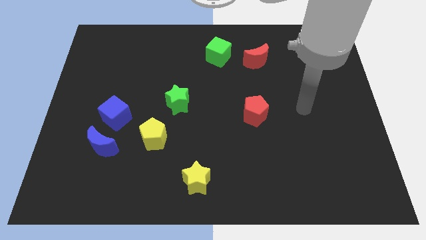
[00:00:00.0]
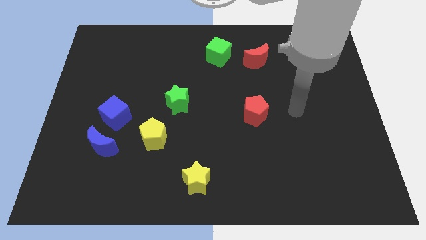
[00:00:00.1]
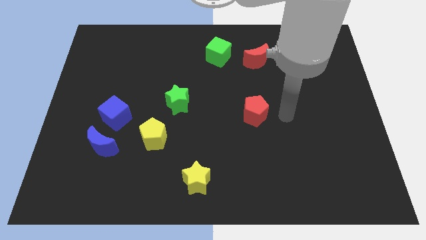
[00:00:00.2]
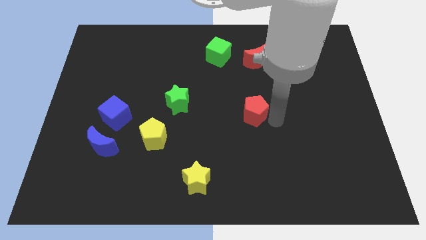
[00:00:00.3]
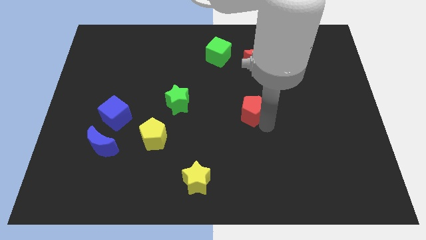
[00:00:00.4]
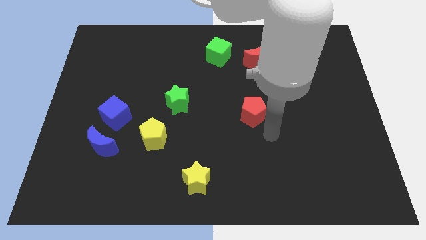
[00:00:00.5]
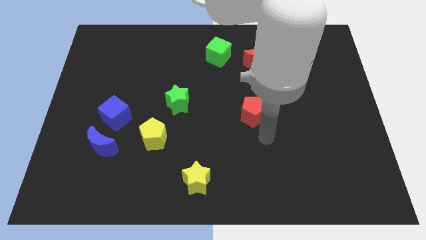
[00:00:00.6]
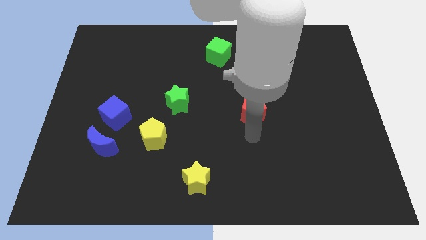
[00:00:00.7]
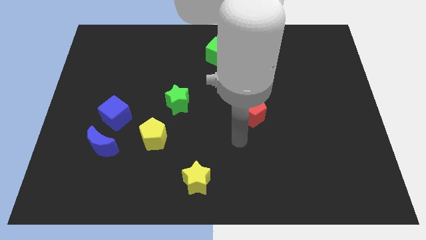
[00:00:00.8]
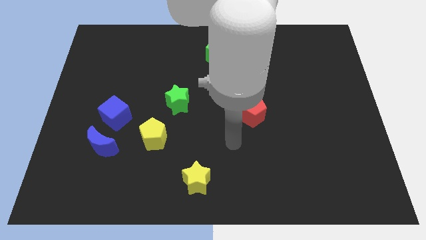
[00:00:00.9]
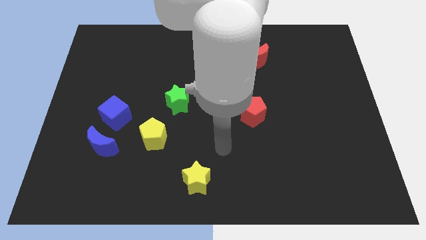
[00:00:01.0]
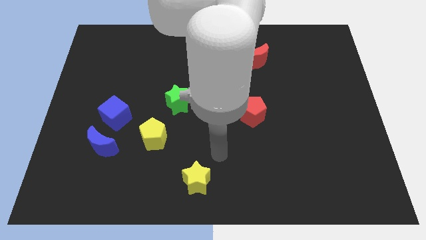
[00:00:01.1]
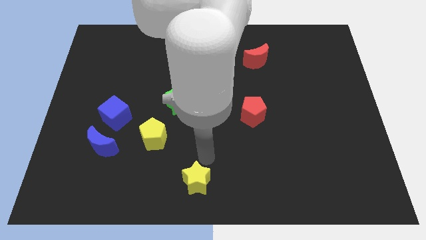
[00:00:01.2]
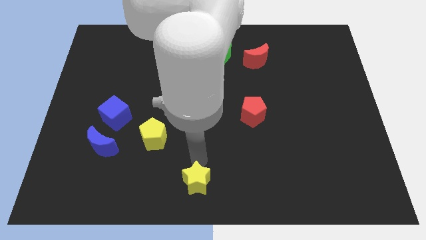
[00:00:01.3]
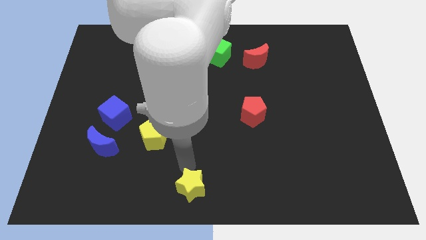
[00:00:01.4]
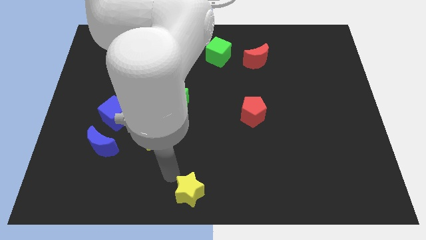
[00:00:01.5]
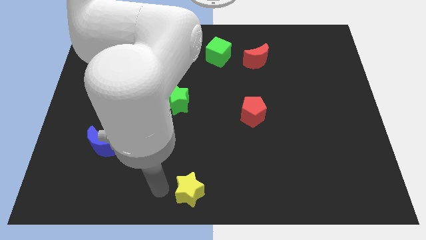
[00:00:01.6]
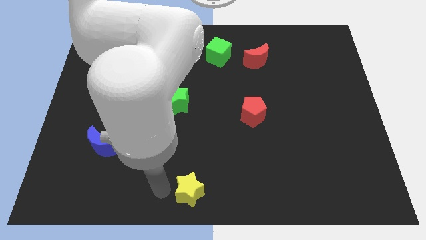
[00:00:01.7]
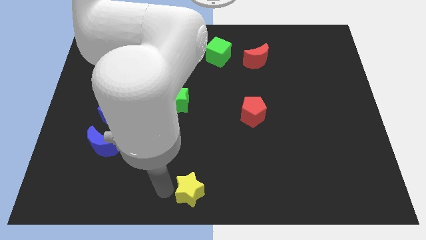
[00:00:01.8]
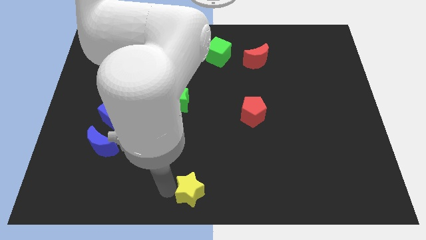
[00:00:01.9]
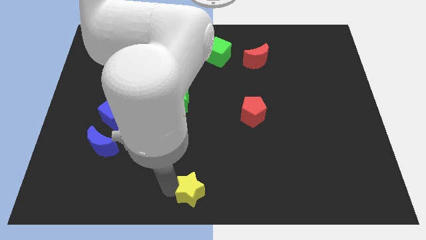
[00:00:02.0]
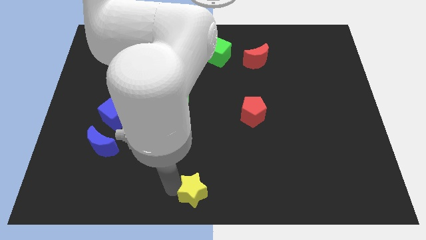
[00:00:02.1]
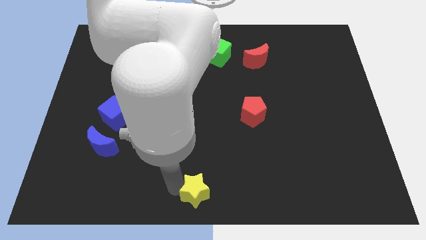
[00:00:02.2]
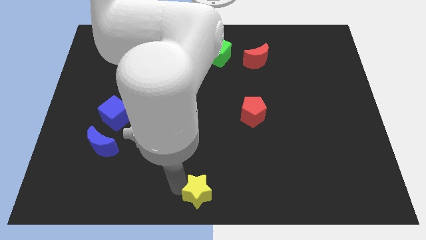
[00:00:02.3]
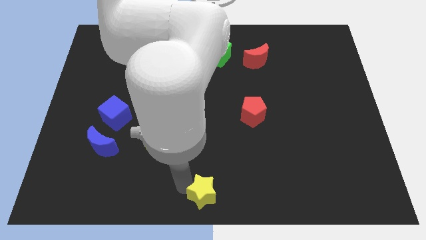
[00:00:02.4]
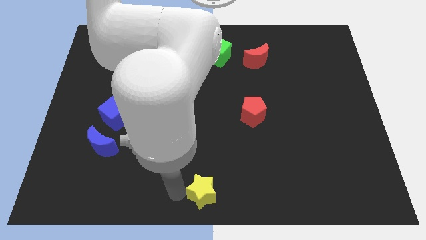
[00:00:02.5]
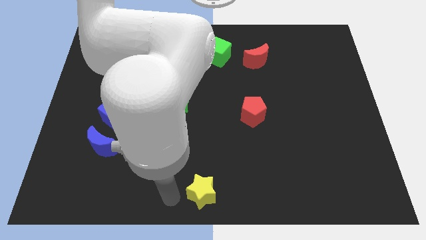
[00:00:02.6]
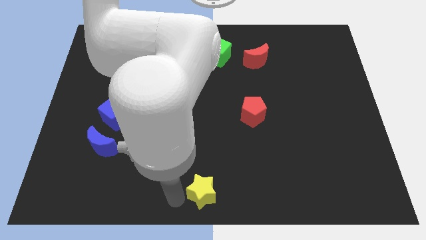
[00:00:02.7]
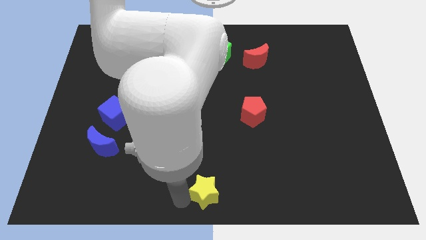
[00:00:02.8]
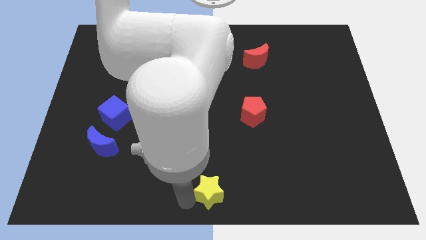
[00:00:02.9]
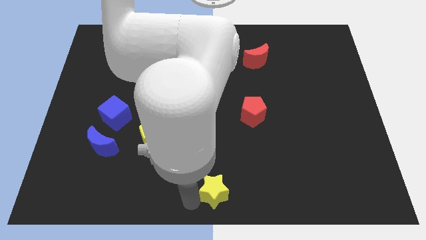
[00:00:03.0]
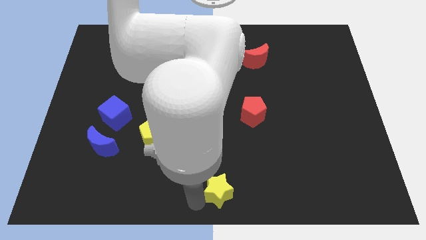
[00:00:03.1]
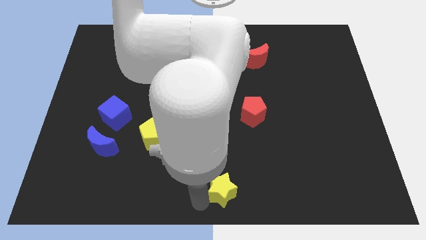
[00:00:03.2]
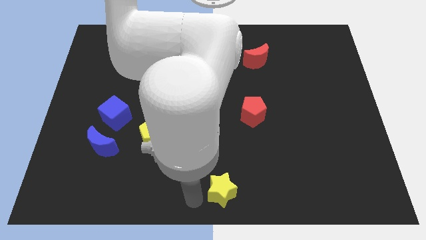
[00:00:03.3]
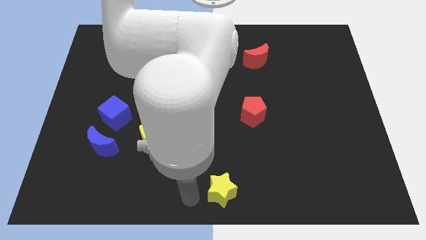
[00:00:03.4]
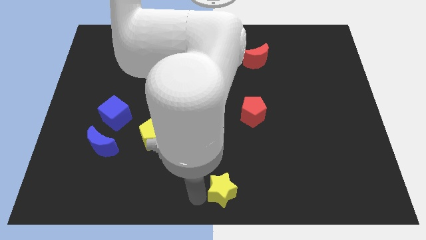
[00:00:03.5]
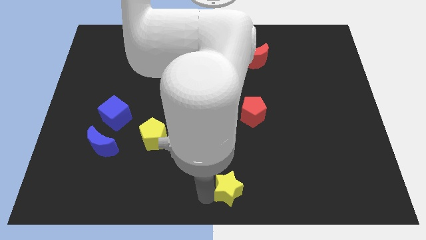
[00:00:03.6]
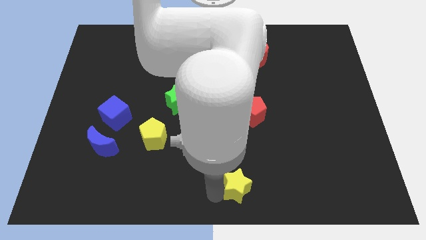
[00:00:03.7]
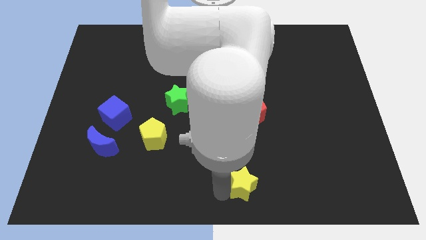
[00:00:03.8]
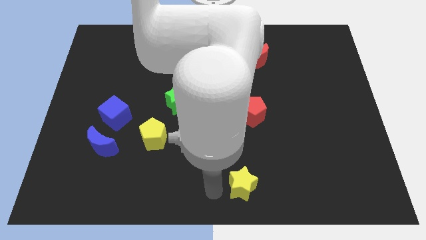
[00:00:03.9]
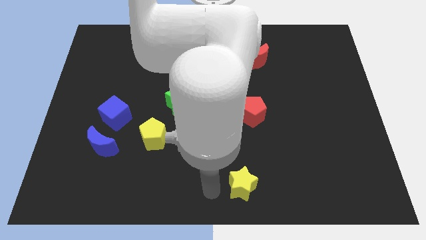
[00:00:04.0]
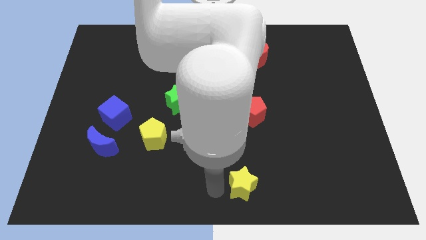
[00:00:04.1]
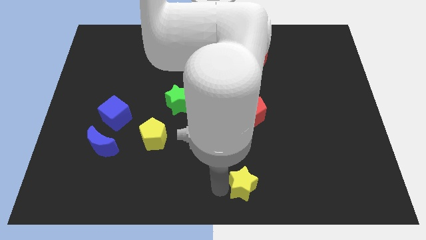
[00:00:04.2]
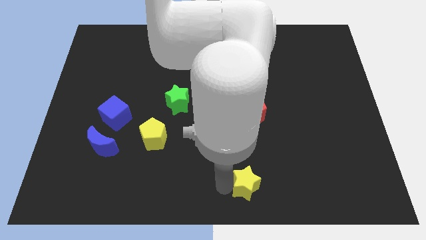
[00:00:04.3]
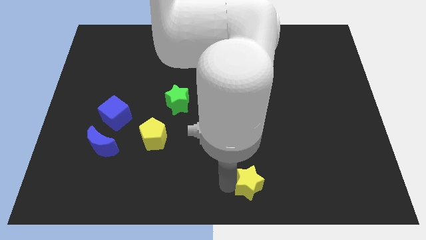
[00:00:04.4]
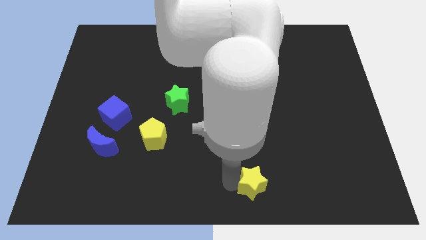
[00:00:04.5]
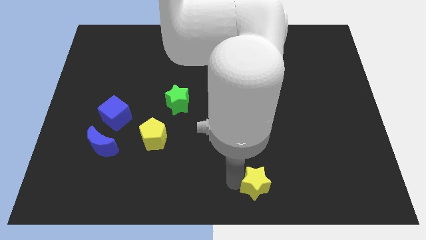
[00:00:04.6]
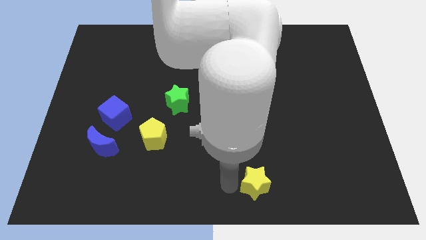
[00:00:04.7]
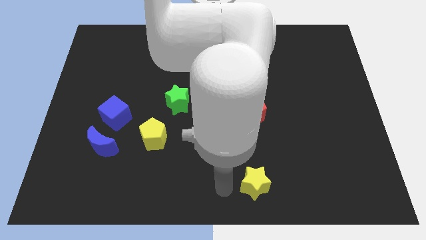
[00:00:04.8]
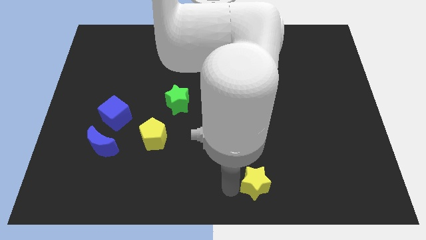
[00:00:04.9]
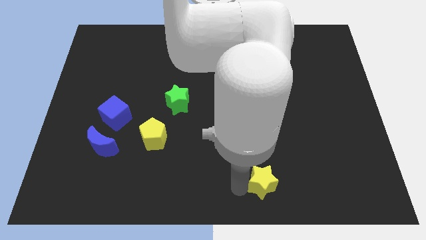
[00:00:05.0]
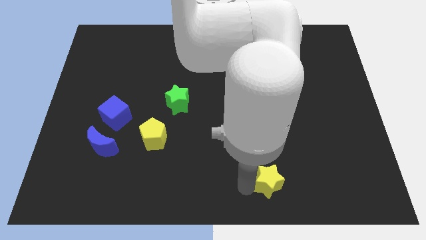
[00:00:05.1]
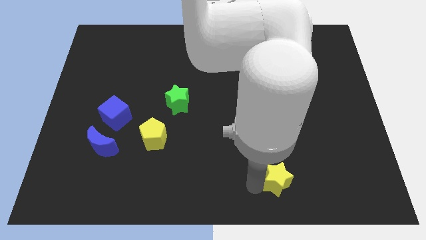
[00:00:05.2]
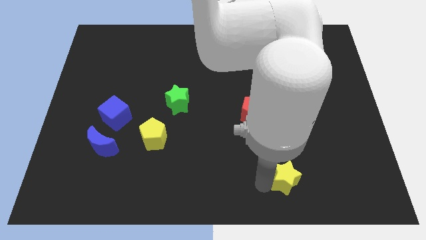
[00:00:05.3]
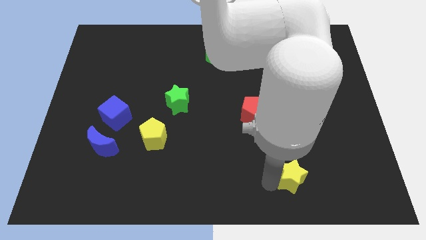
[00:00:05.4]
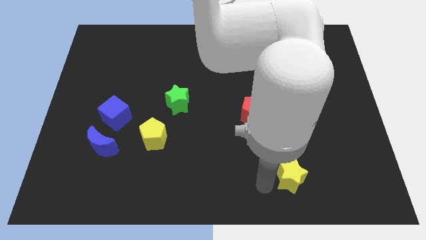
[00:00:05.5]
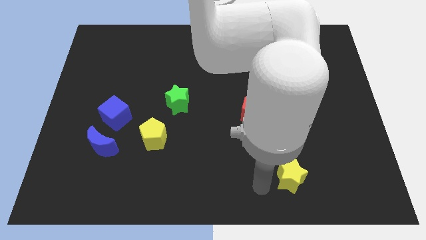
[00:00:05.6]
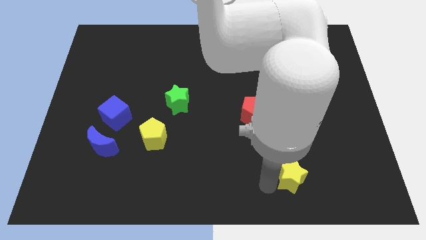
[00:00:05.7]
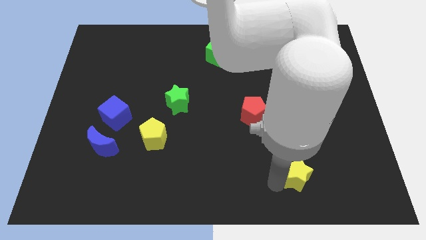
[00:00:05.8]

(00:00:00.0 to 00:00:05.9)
slide the yellow star right

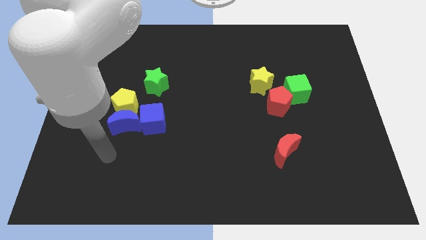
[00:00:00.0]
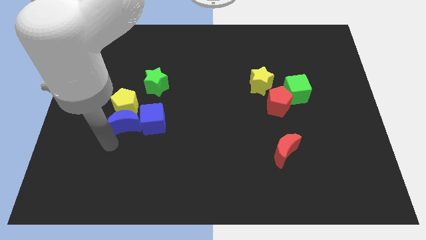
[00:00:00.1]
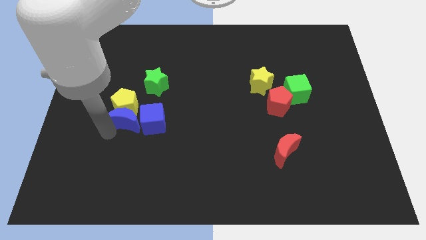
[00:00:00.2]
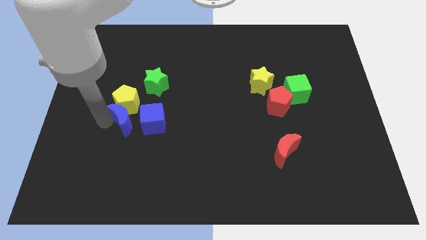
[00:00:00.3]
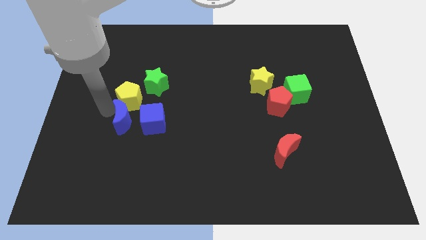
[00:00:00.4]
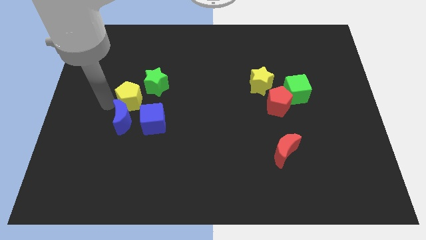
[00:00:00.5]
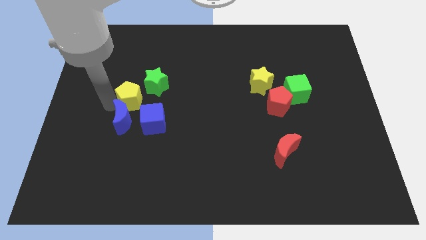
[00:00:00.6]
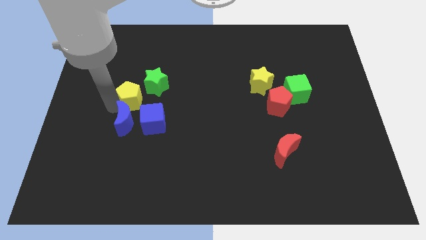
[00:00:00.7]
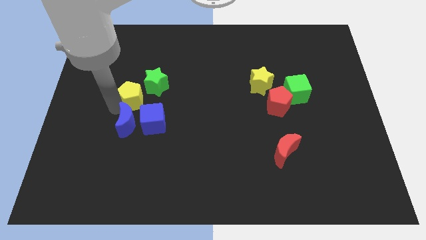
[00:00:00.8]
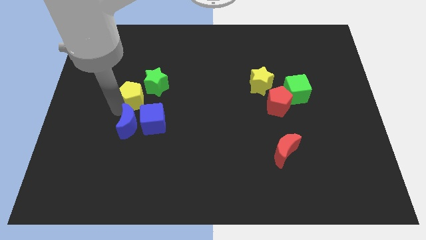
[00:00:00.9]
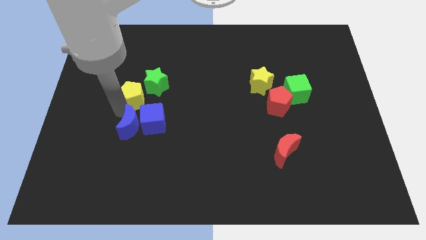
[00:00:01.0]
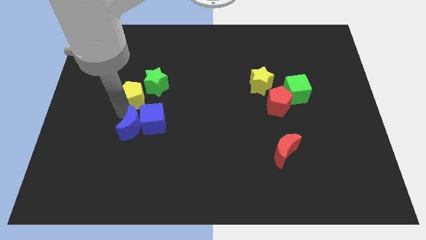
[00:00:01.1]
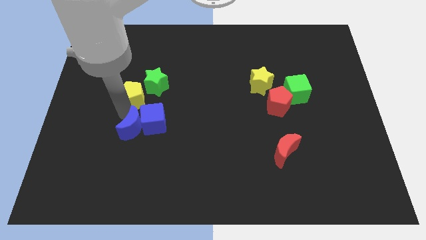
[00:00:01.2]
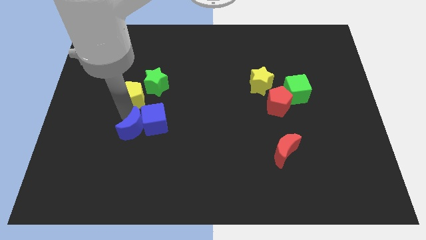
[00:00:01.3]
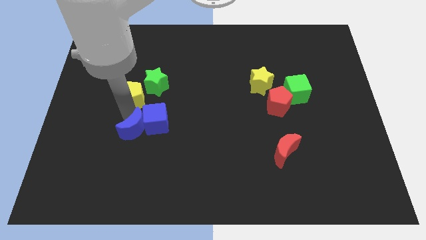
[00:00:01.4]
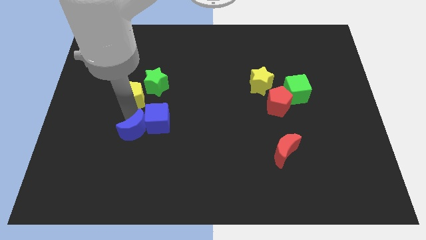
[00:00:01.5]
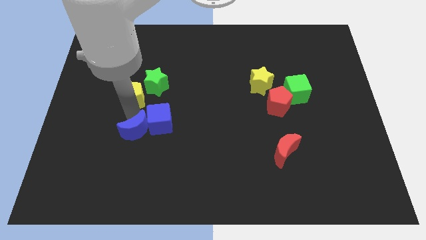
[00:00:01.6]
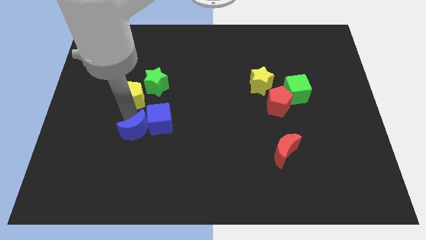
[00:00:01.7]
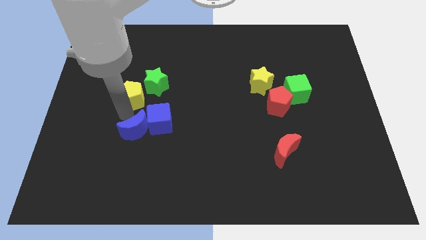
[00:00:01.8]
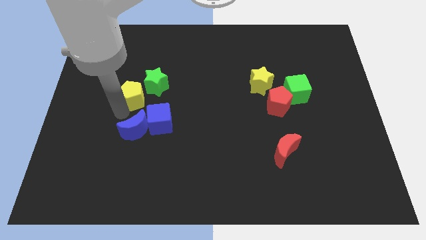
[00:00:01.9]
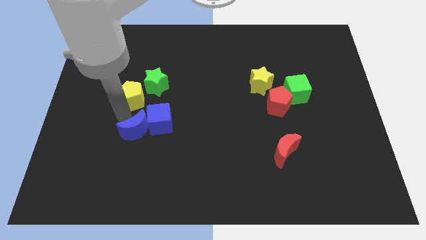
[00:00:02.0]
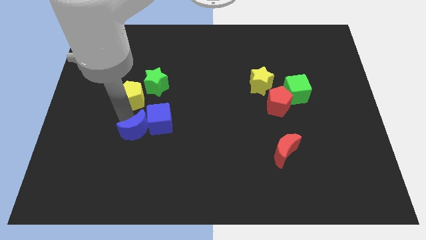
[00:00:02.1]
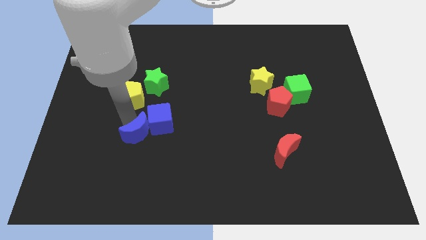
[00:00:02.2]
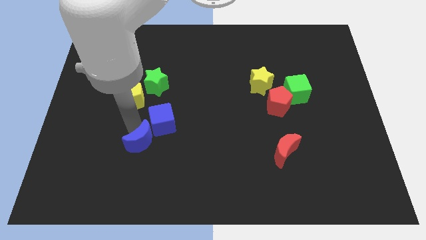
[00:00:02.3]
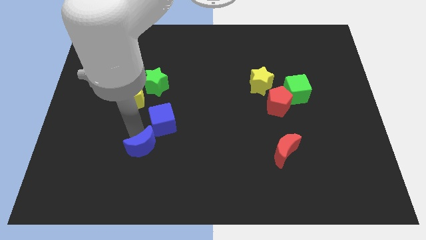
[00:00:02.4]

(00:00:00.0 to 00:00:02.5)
slightly push the blue moon downwards and to the right
